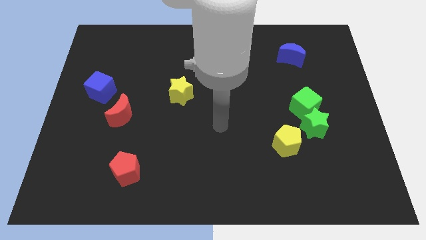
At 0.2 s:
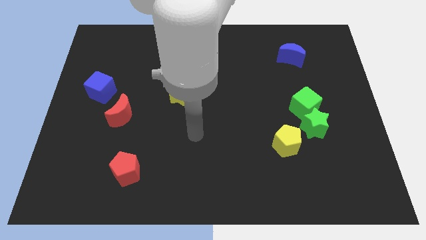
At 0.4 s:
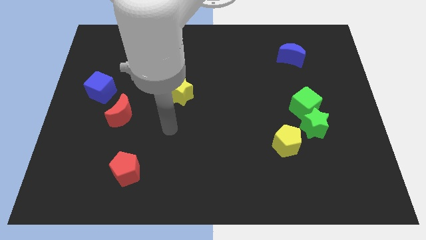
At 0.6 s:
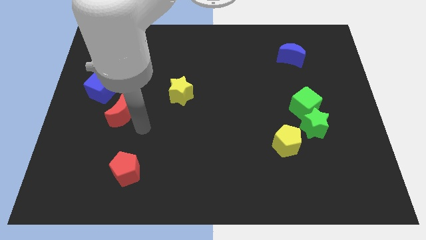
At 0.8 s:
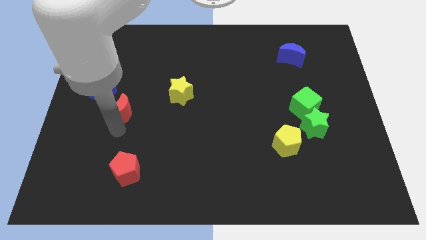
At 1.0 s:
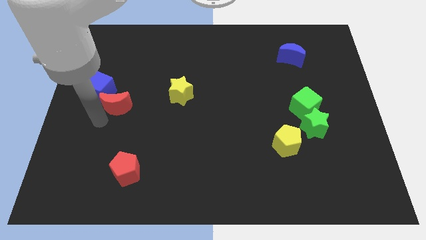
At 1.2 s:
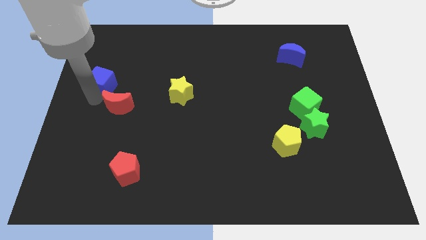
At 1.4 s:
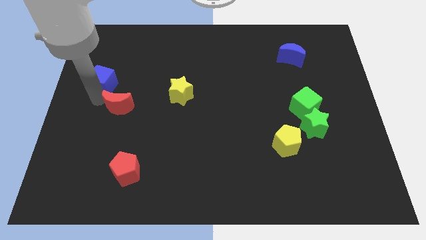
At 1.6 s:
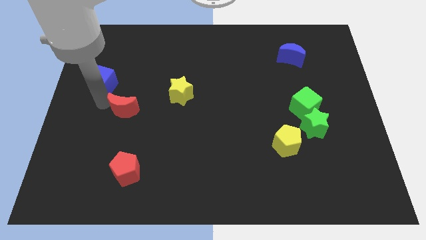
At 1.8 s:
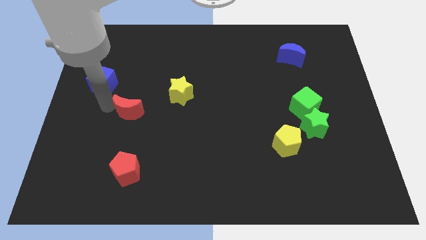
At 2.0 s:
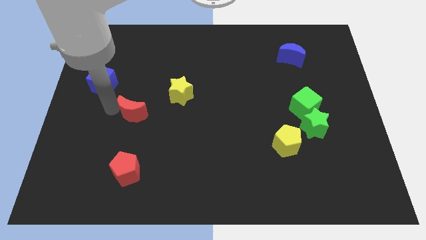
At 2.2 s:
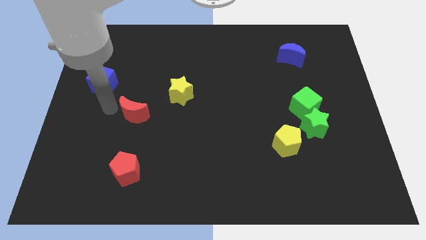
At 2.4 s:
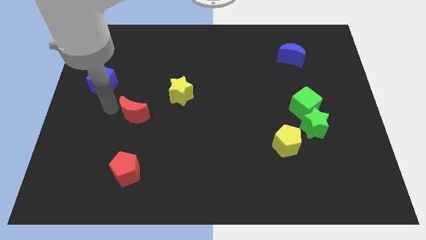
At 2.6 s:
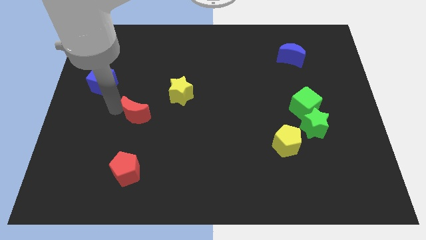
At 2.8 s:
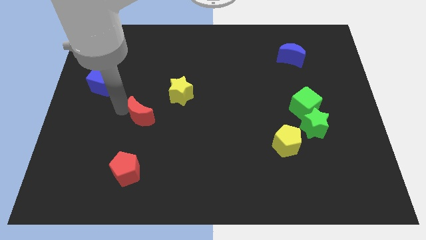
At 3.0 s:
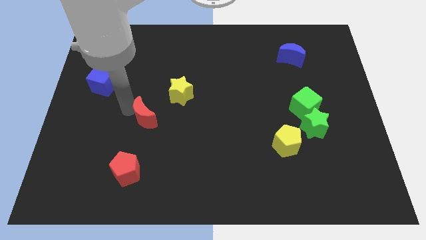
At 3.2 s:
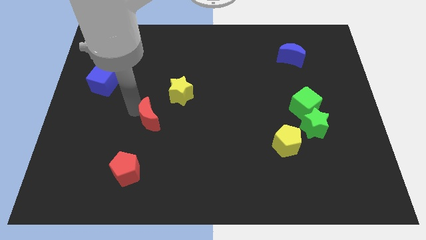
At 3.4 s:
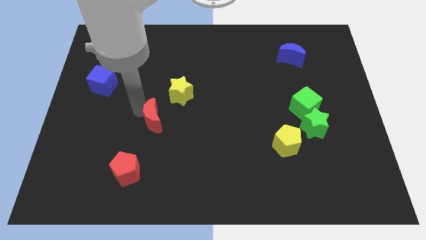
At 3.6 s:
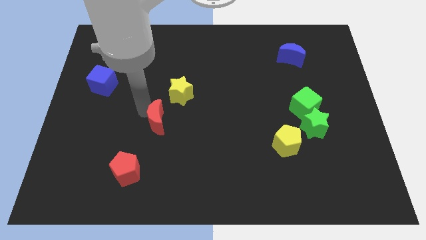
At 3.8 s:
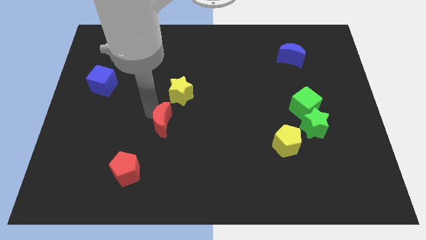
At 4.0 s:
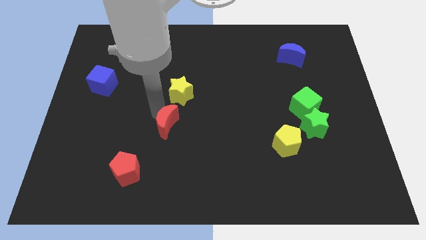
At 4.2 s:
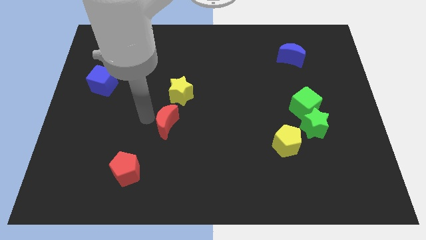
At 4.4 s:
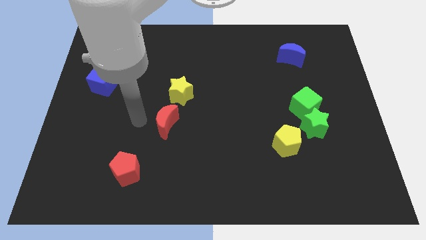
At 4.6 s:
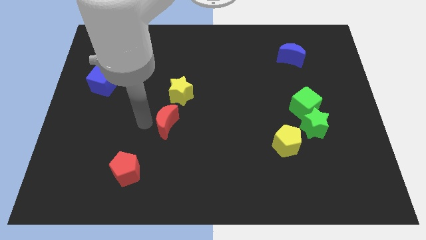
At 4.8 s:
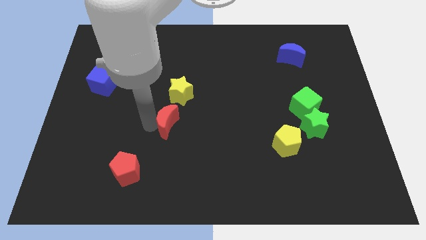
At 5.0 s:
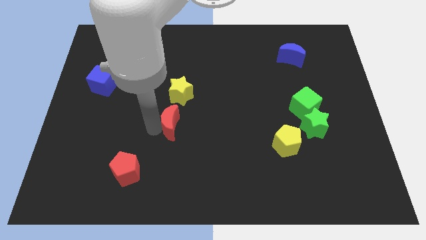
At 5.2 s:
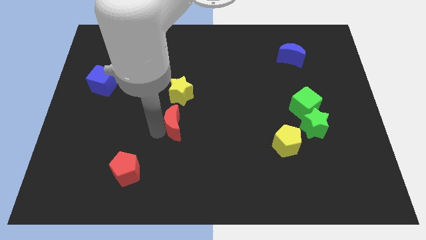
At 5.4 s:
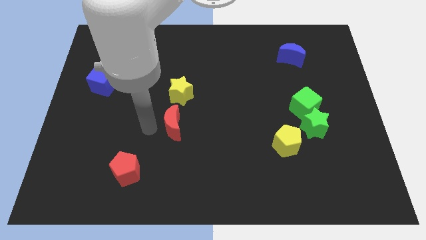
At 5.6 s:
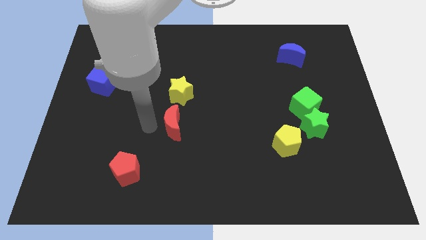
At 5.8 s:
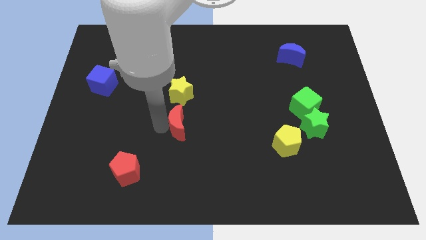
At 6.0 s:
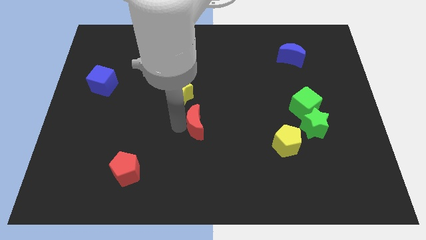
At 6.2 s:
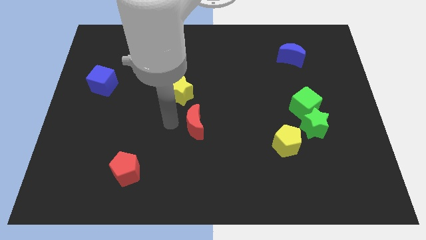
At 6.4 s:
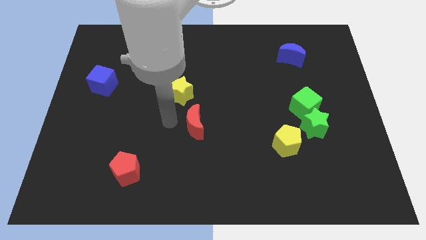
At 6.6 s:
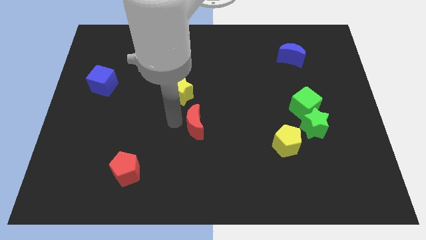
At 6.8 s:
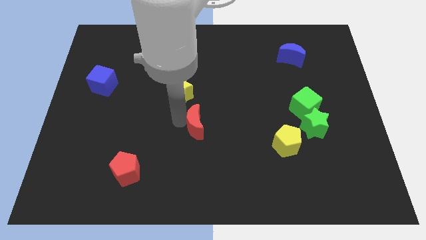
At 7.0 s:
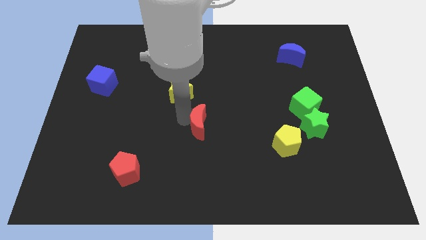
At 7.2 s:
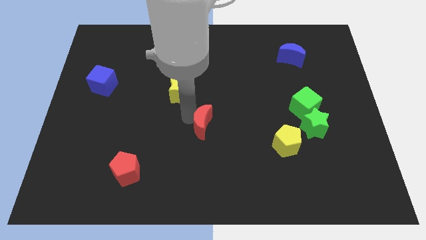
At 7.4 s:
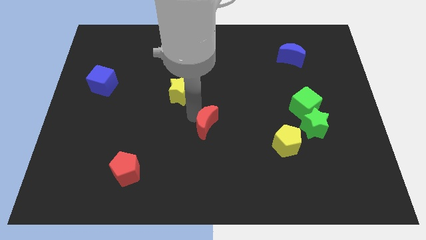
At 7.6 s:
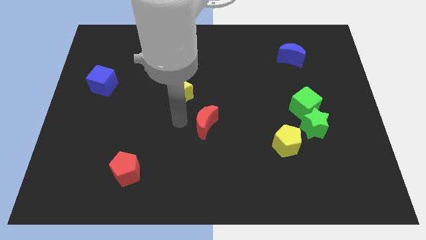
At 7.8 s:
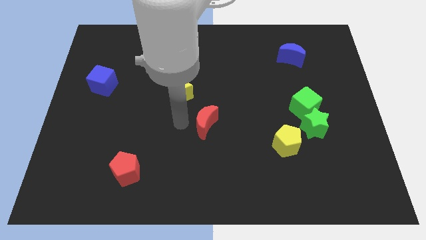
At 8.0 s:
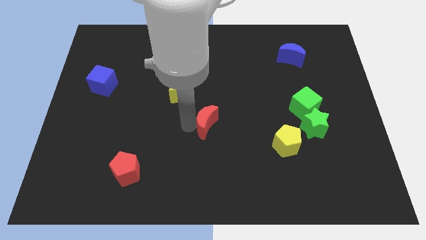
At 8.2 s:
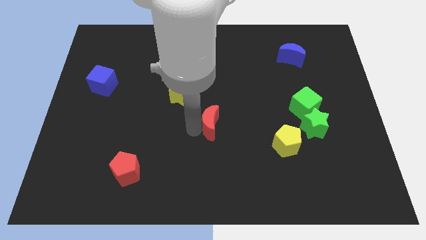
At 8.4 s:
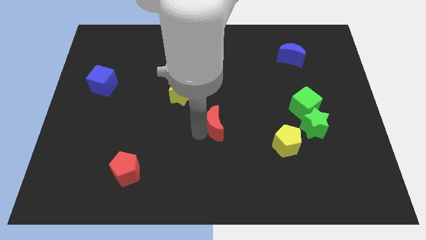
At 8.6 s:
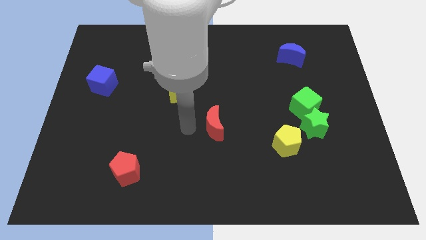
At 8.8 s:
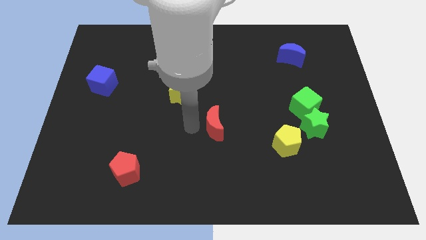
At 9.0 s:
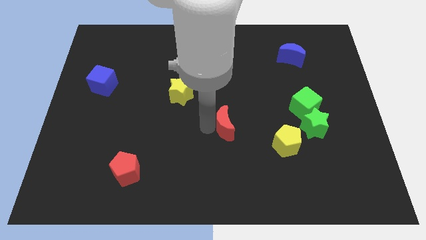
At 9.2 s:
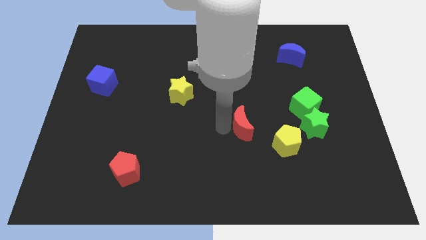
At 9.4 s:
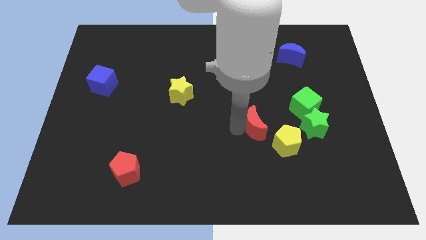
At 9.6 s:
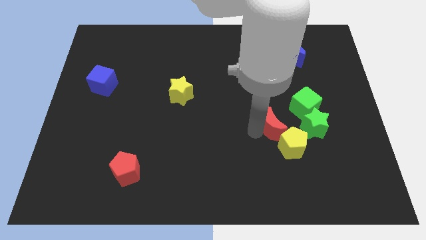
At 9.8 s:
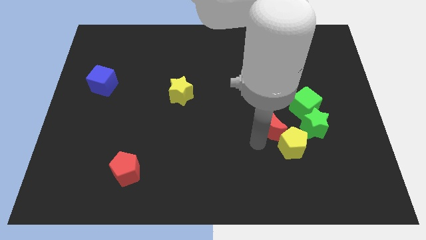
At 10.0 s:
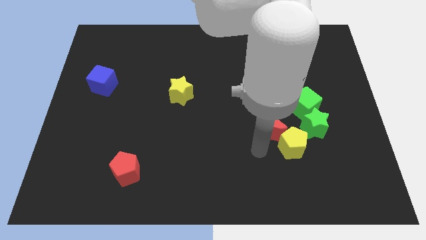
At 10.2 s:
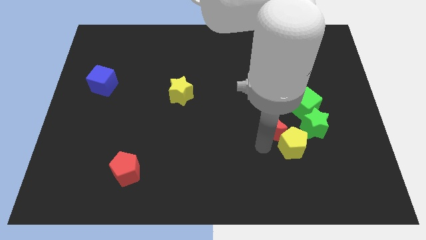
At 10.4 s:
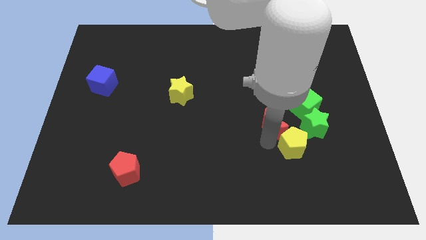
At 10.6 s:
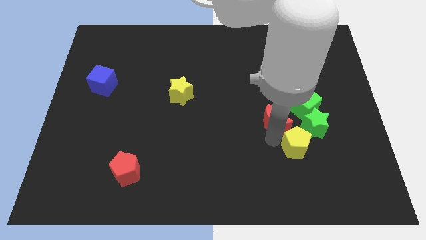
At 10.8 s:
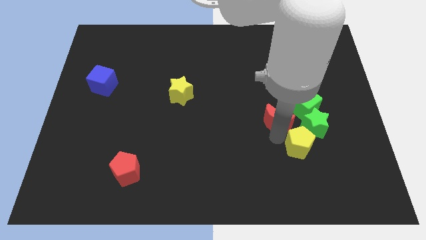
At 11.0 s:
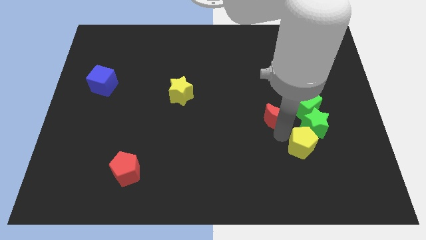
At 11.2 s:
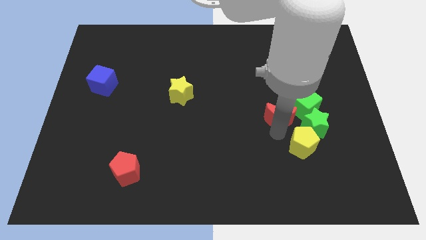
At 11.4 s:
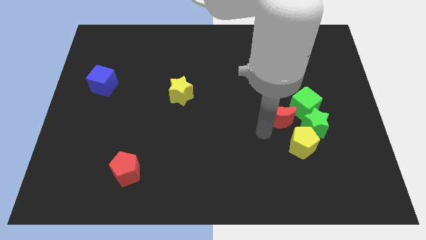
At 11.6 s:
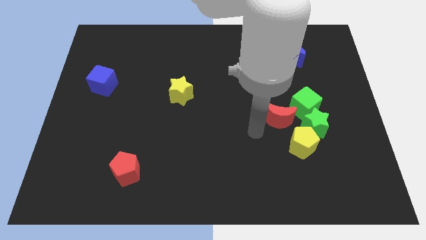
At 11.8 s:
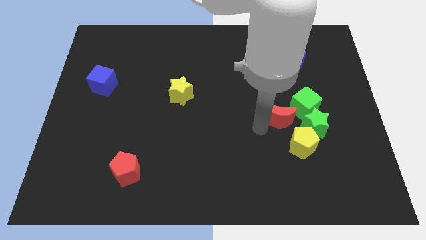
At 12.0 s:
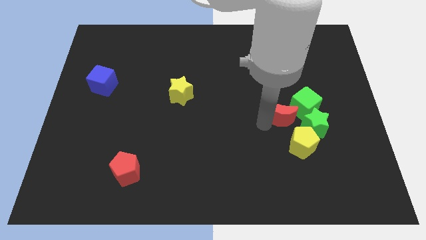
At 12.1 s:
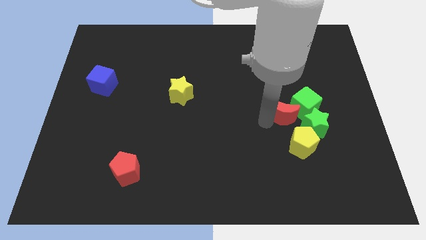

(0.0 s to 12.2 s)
push the red moon to the green cube

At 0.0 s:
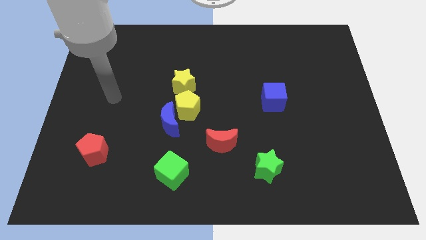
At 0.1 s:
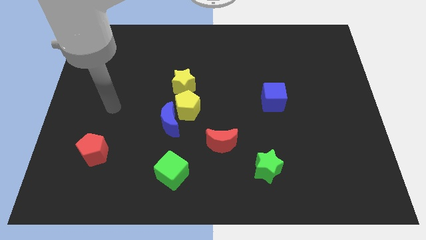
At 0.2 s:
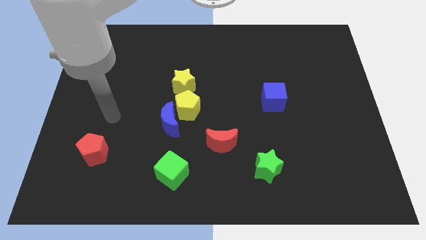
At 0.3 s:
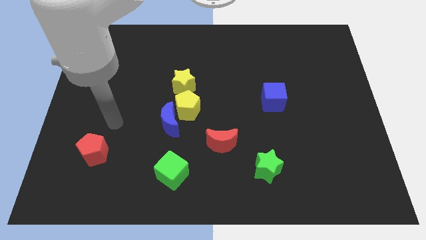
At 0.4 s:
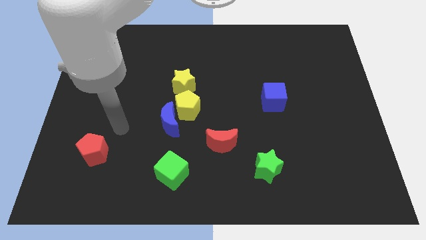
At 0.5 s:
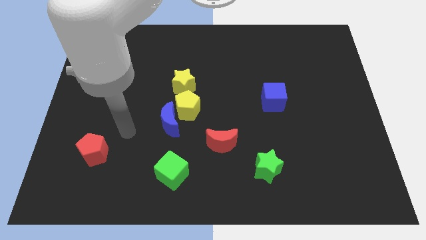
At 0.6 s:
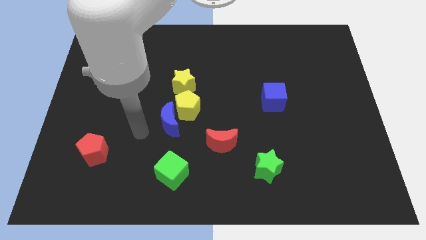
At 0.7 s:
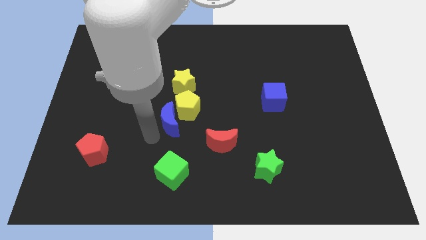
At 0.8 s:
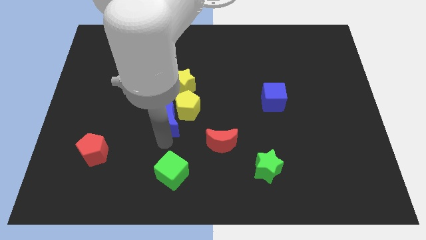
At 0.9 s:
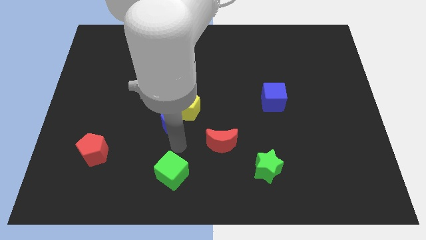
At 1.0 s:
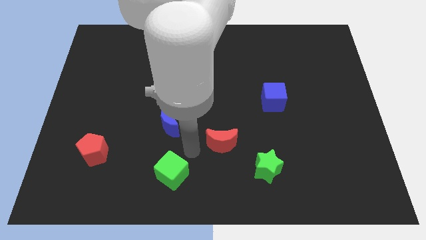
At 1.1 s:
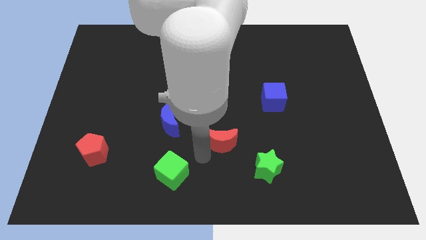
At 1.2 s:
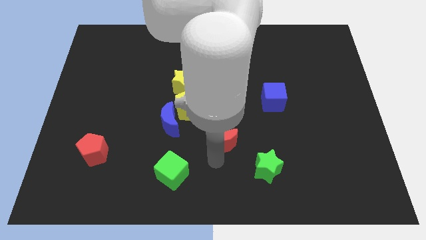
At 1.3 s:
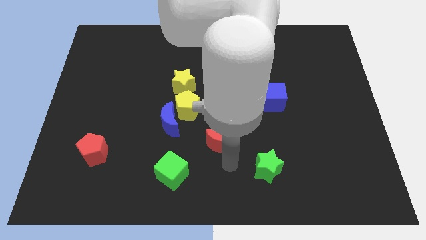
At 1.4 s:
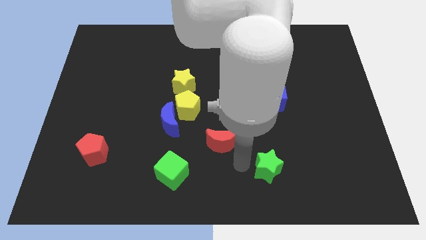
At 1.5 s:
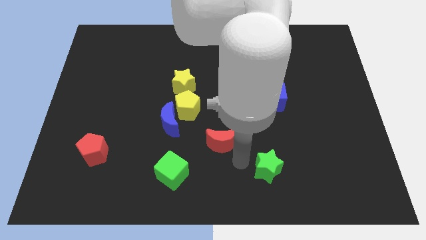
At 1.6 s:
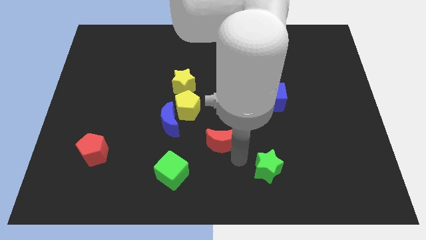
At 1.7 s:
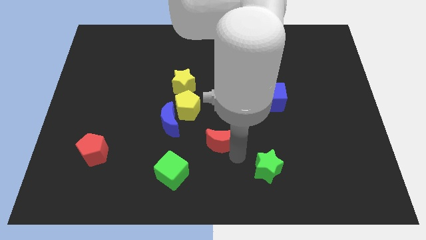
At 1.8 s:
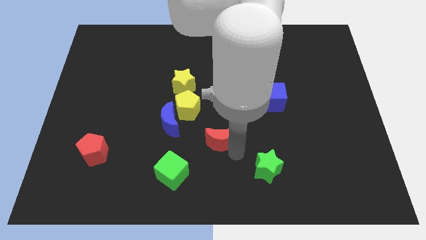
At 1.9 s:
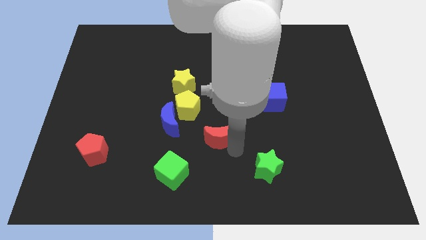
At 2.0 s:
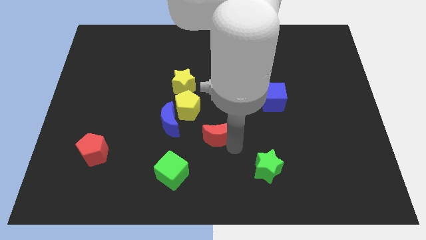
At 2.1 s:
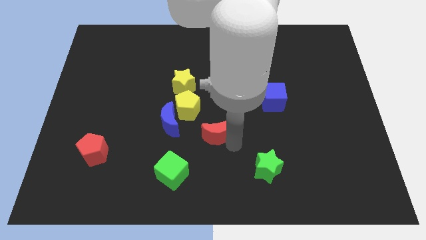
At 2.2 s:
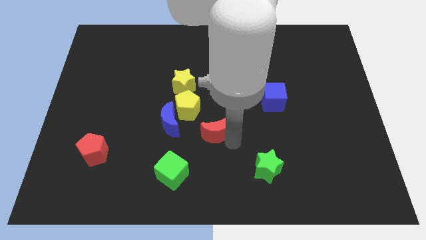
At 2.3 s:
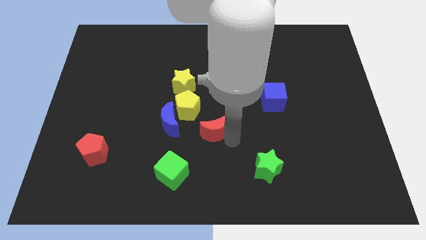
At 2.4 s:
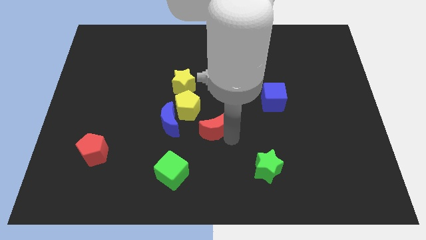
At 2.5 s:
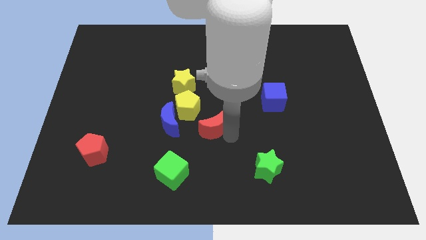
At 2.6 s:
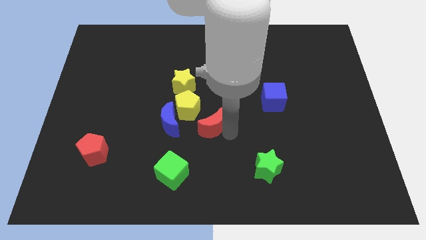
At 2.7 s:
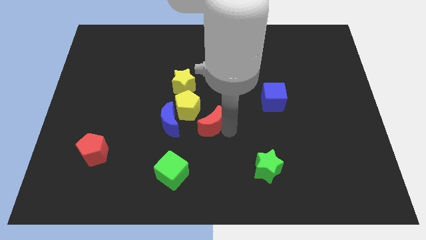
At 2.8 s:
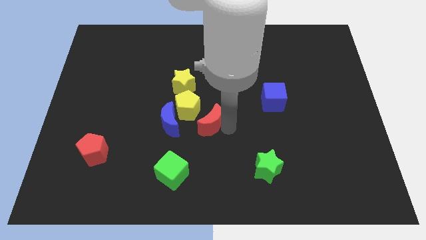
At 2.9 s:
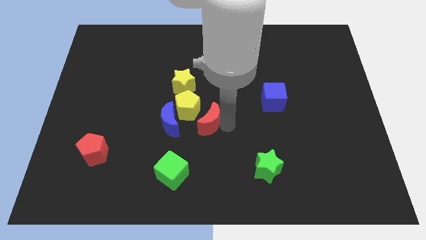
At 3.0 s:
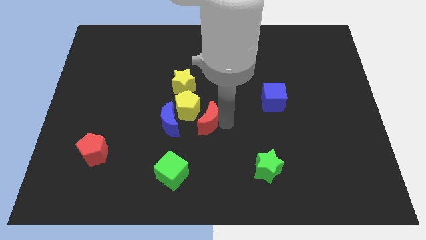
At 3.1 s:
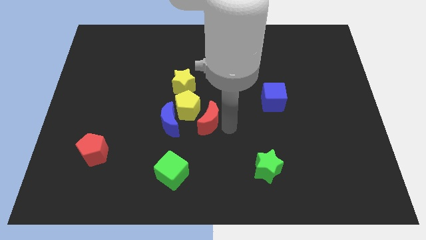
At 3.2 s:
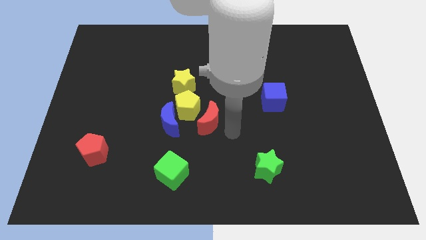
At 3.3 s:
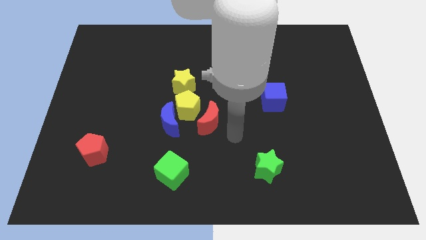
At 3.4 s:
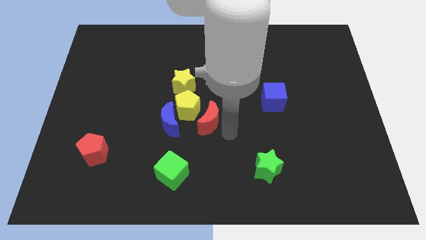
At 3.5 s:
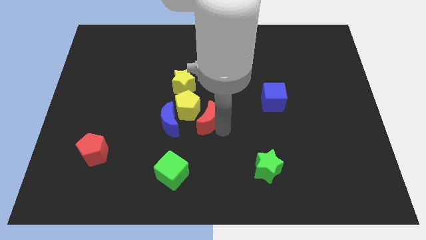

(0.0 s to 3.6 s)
move the red moon towards the yellow pentagon
